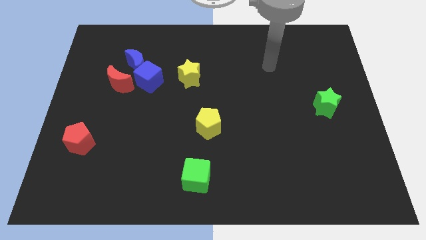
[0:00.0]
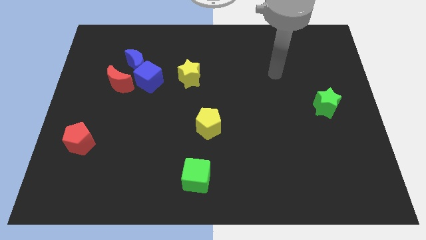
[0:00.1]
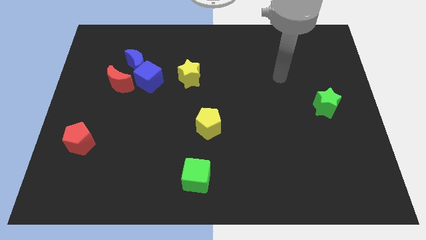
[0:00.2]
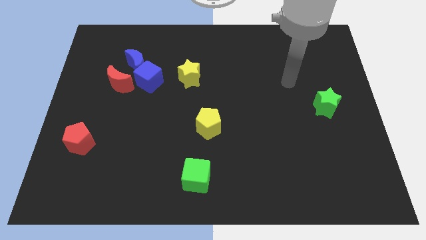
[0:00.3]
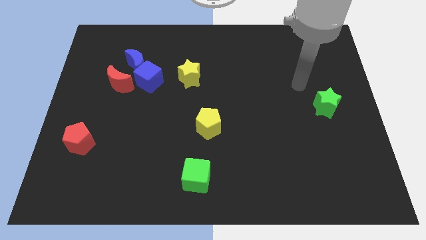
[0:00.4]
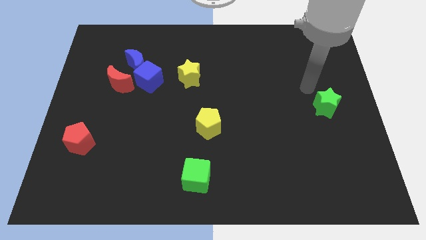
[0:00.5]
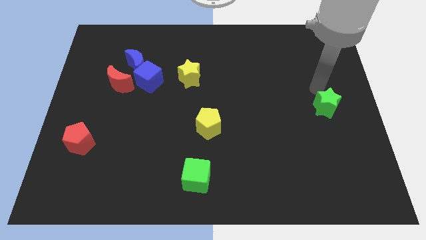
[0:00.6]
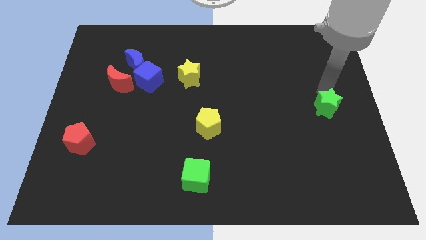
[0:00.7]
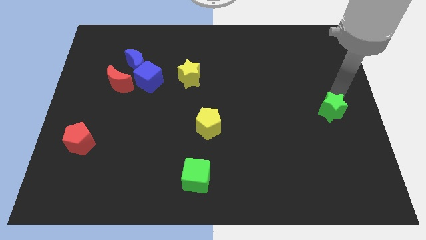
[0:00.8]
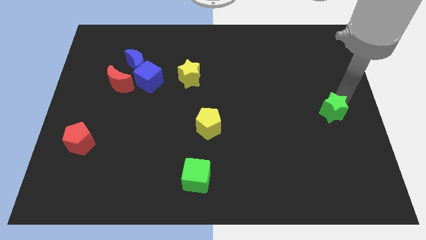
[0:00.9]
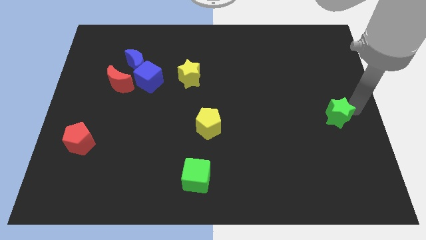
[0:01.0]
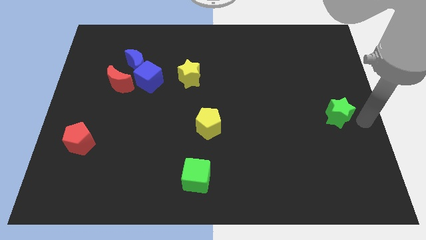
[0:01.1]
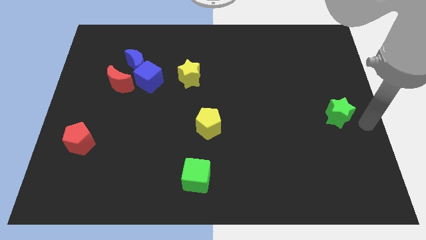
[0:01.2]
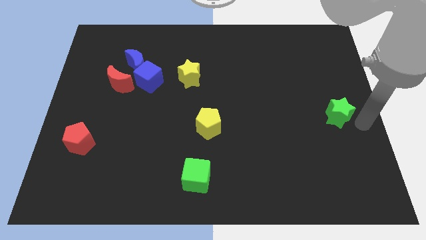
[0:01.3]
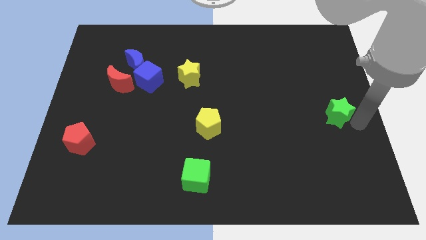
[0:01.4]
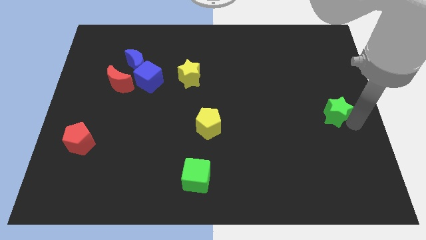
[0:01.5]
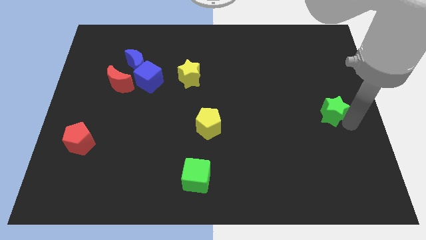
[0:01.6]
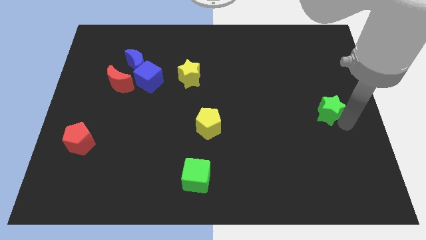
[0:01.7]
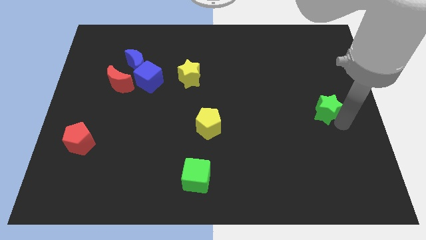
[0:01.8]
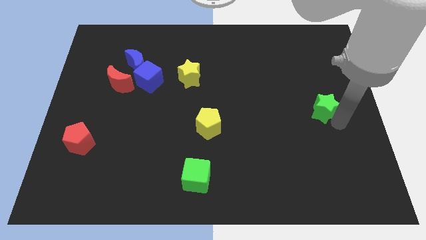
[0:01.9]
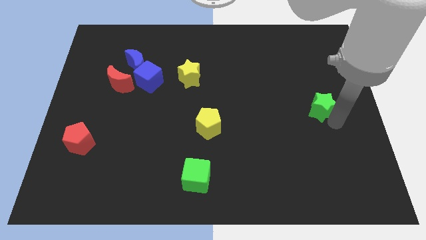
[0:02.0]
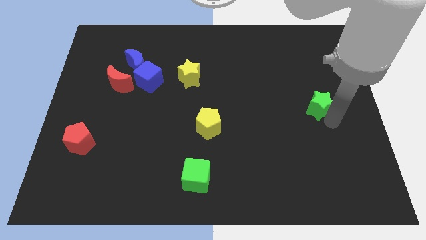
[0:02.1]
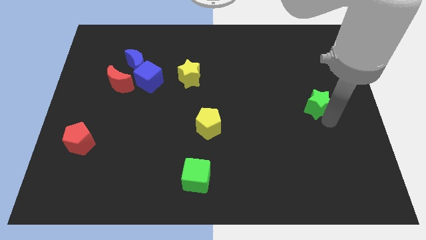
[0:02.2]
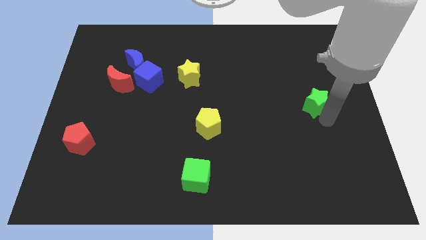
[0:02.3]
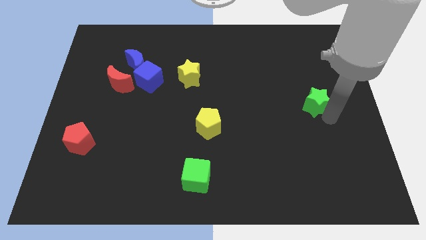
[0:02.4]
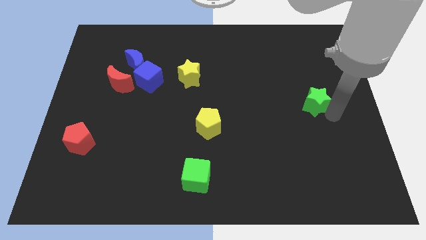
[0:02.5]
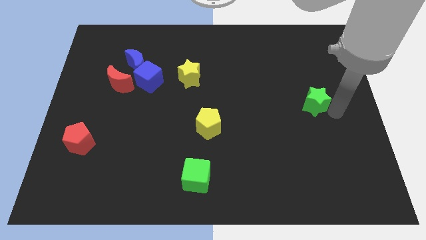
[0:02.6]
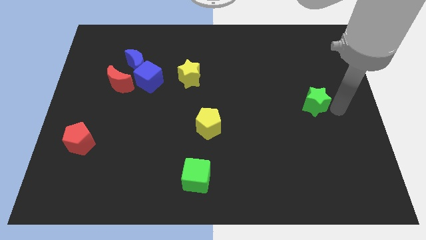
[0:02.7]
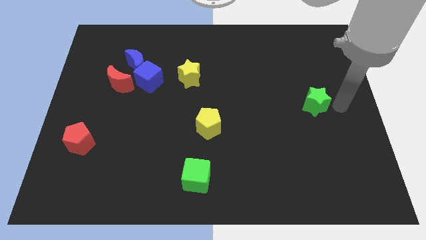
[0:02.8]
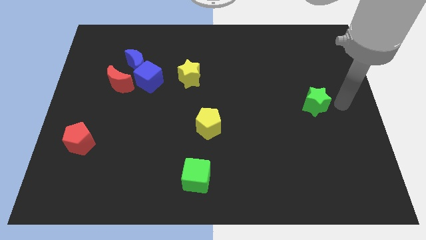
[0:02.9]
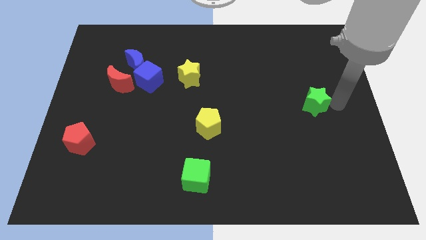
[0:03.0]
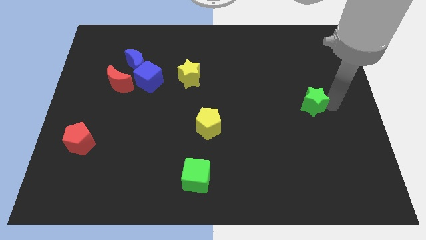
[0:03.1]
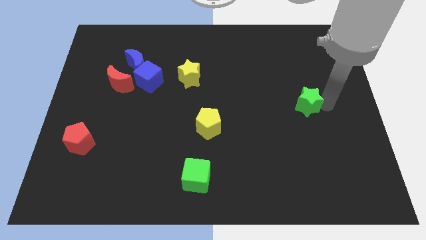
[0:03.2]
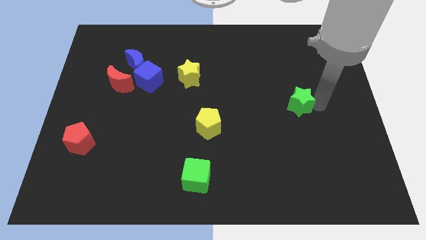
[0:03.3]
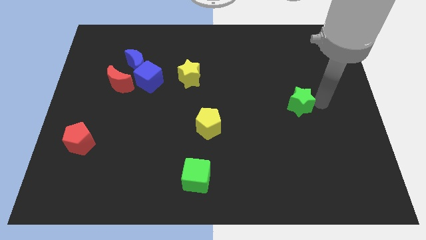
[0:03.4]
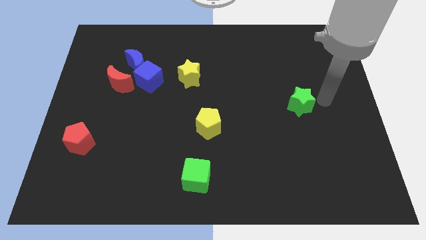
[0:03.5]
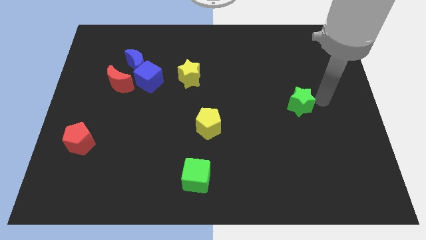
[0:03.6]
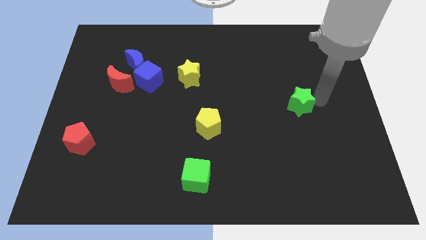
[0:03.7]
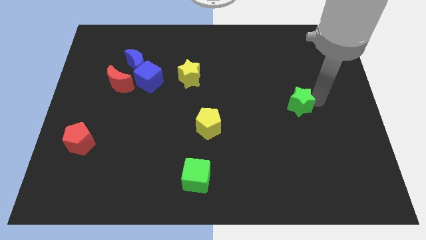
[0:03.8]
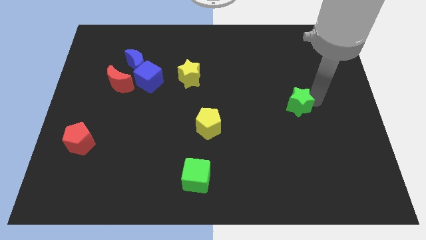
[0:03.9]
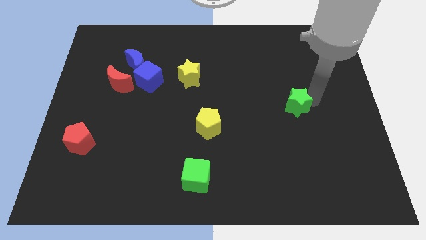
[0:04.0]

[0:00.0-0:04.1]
move the green star left a little bit

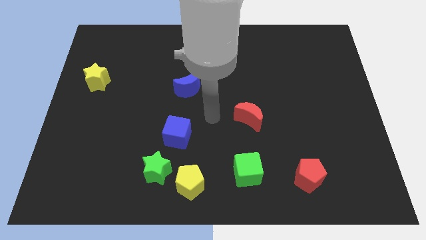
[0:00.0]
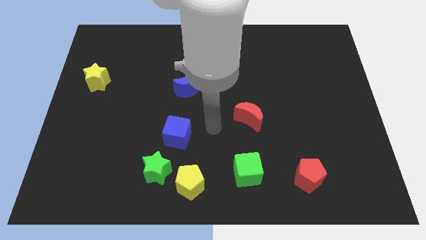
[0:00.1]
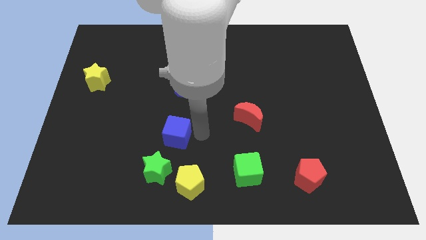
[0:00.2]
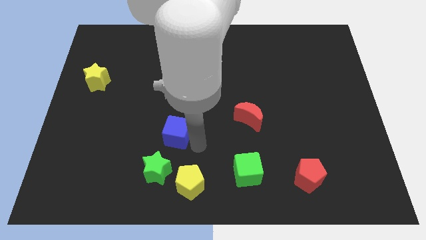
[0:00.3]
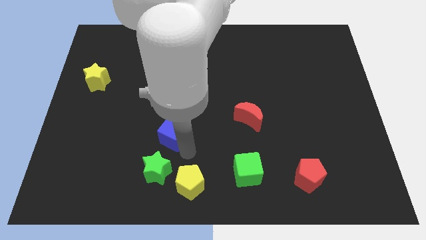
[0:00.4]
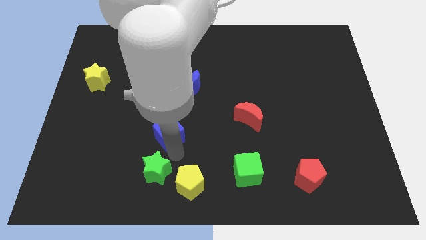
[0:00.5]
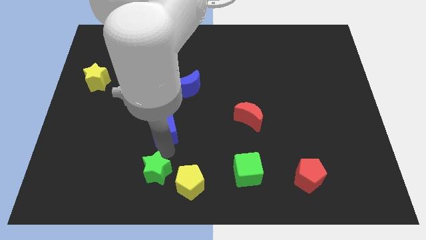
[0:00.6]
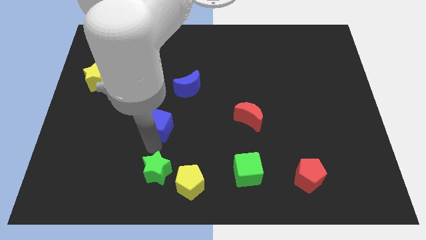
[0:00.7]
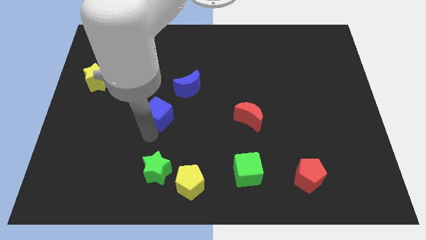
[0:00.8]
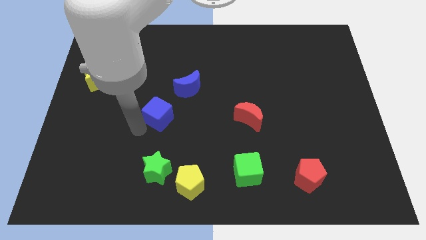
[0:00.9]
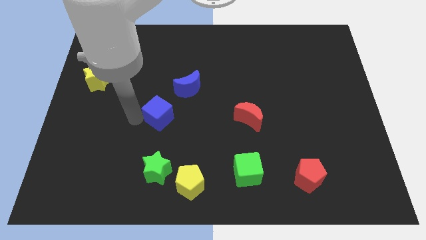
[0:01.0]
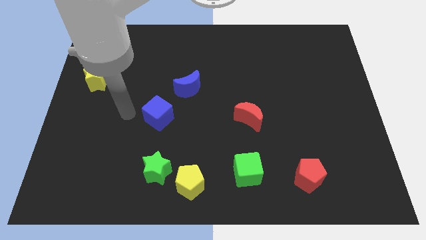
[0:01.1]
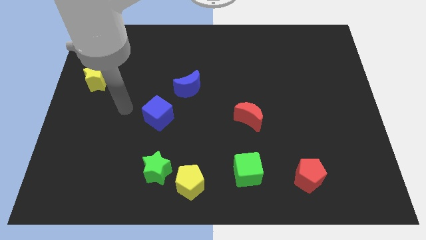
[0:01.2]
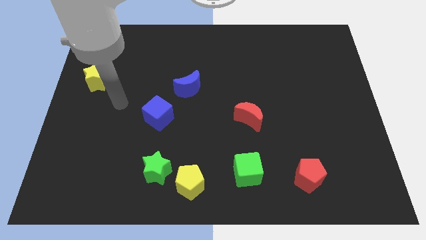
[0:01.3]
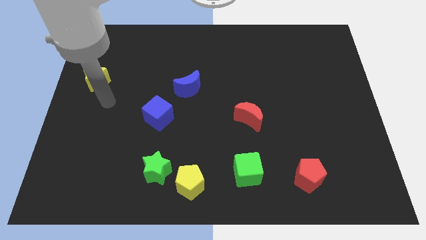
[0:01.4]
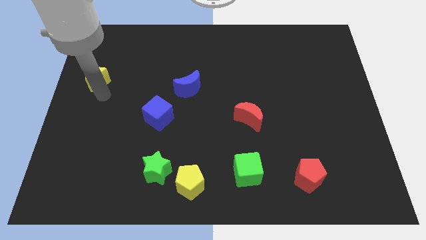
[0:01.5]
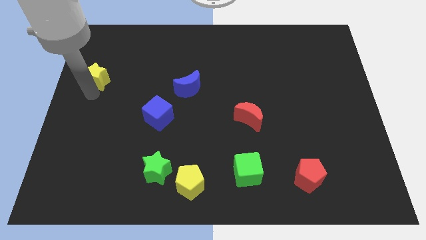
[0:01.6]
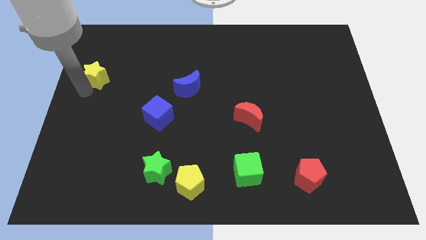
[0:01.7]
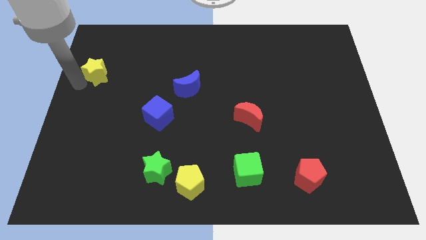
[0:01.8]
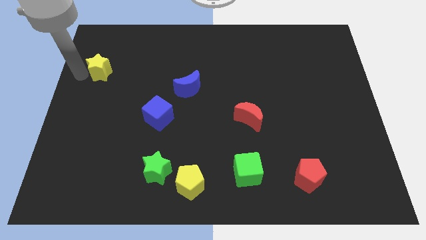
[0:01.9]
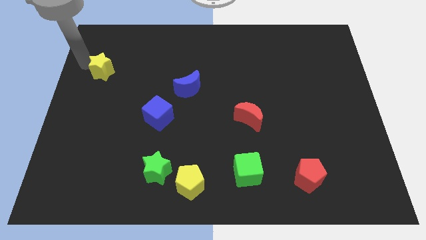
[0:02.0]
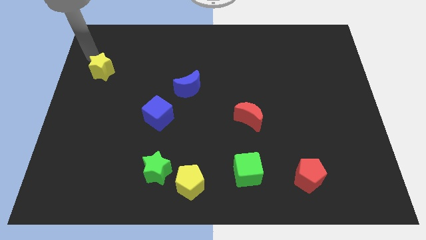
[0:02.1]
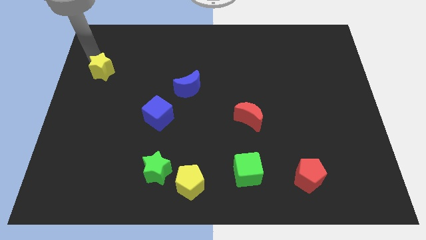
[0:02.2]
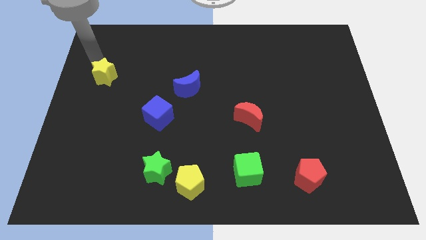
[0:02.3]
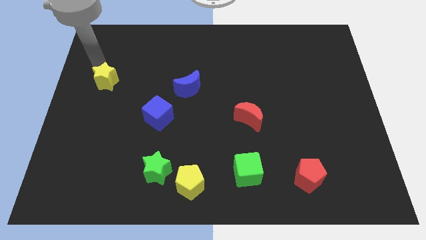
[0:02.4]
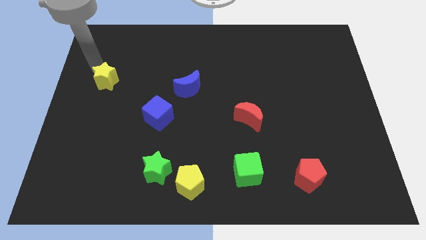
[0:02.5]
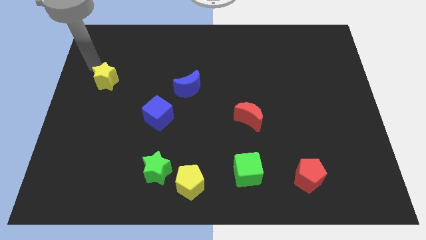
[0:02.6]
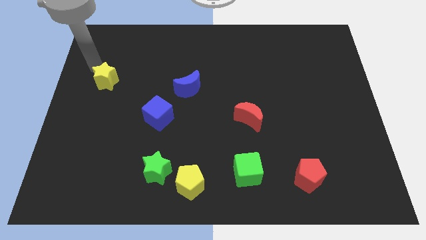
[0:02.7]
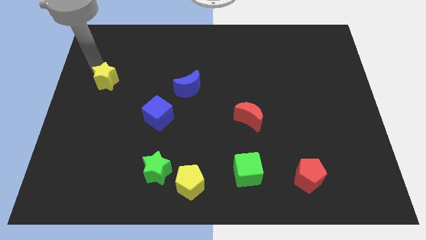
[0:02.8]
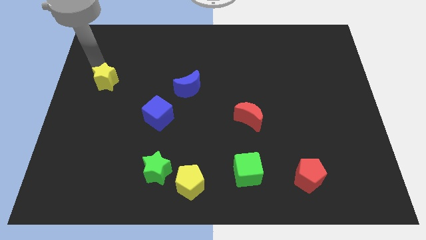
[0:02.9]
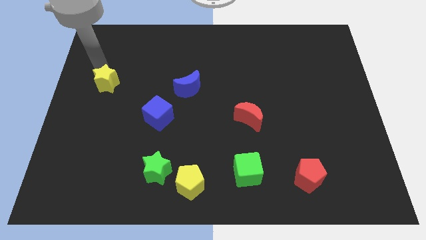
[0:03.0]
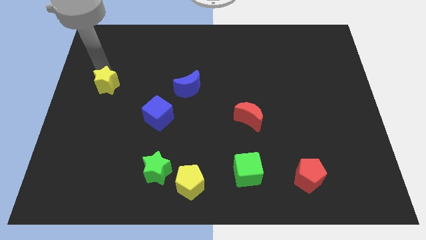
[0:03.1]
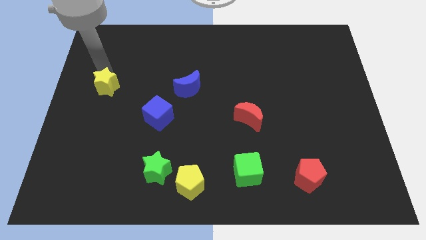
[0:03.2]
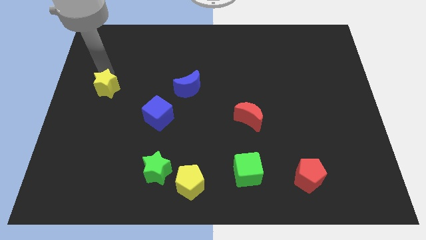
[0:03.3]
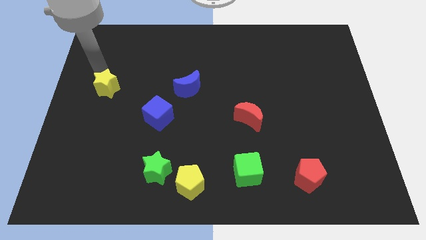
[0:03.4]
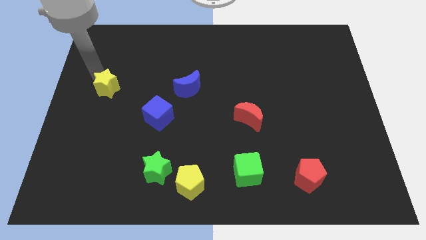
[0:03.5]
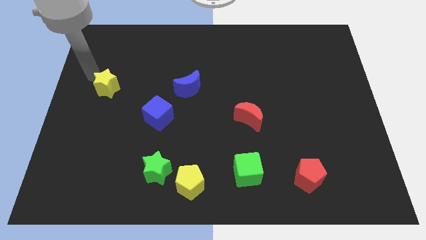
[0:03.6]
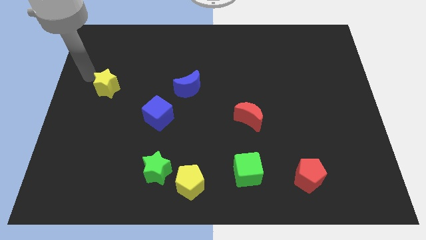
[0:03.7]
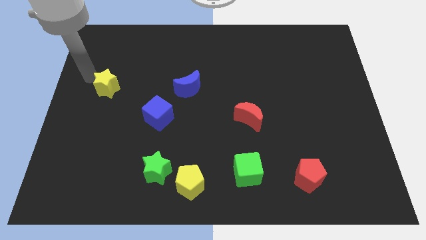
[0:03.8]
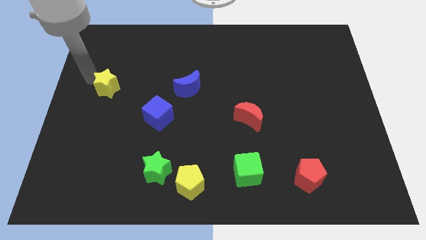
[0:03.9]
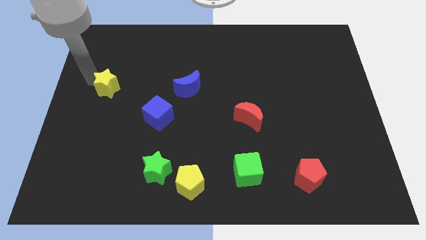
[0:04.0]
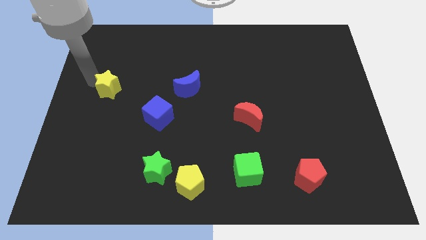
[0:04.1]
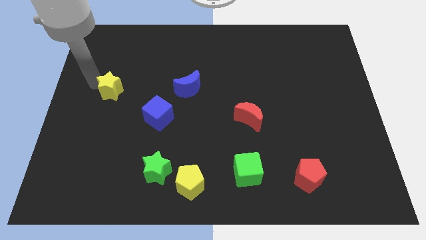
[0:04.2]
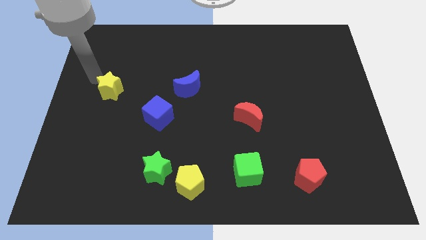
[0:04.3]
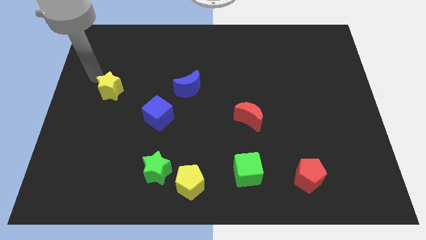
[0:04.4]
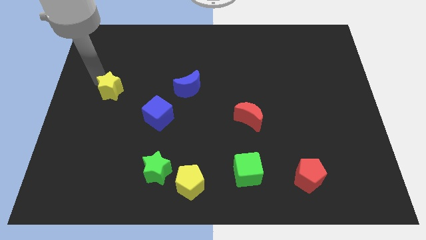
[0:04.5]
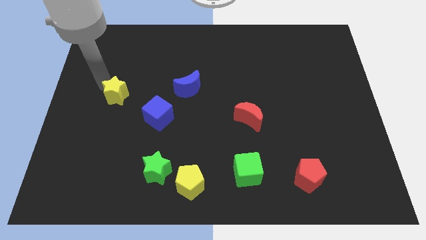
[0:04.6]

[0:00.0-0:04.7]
push the yellow star downwards and to the right somewhat
